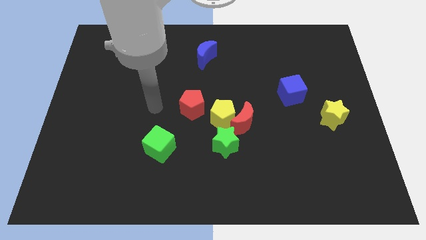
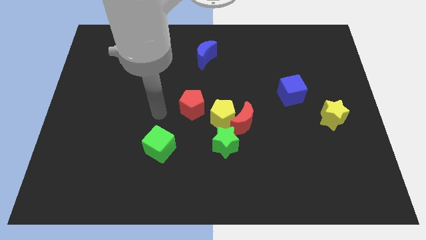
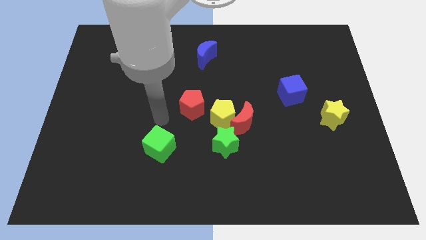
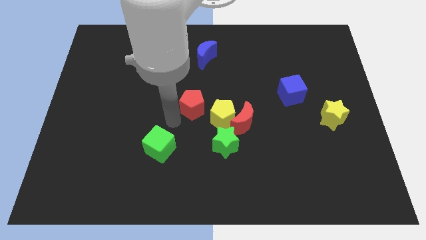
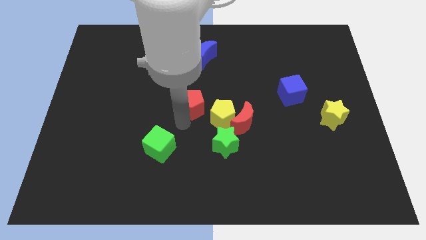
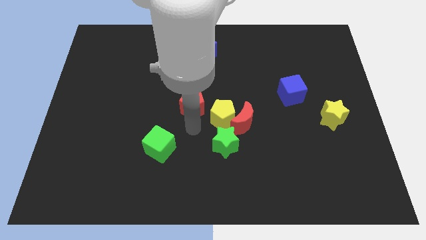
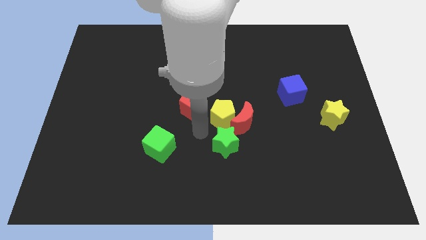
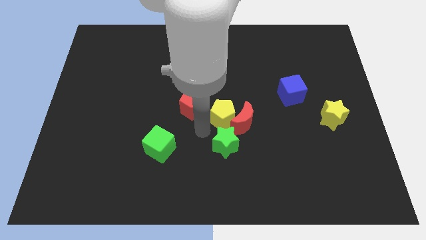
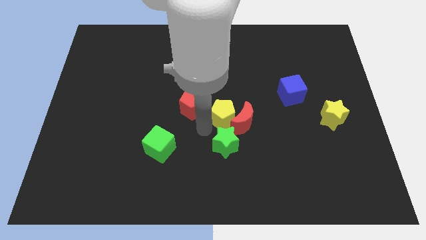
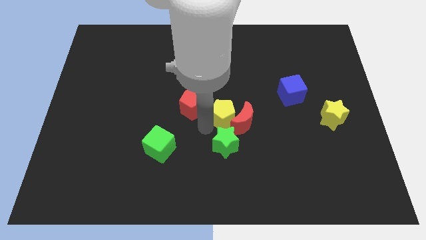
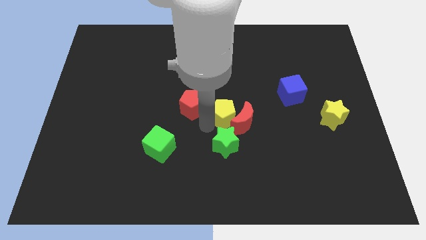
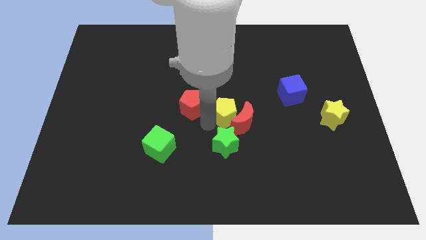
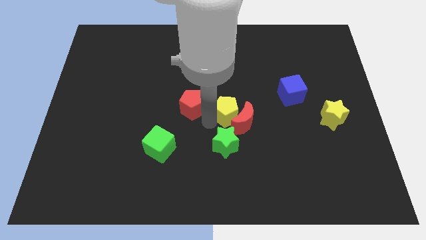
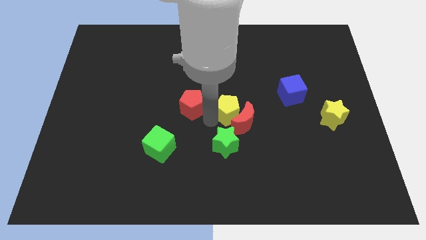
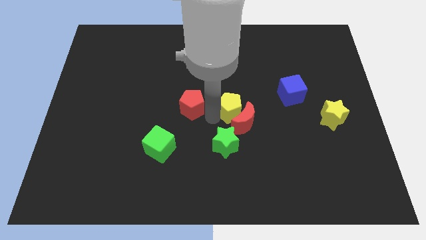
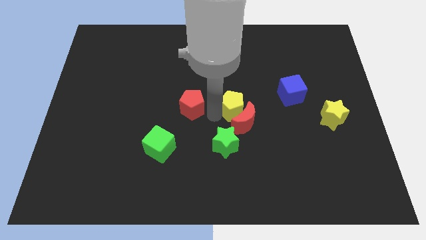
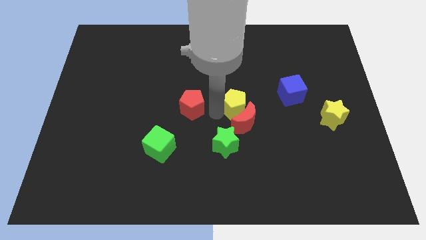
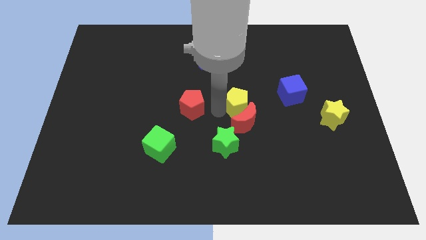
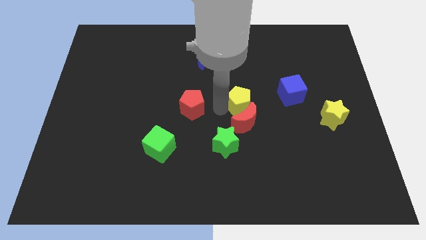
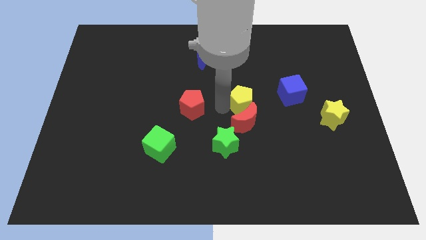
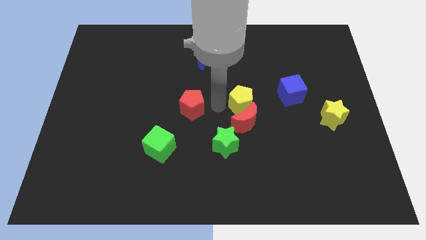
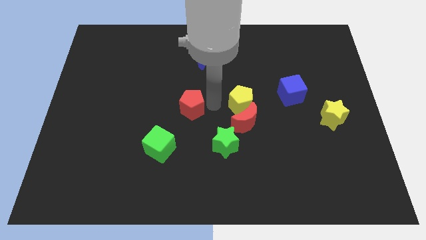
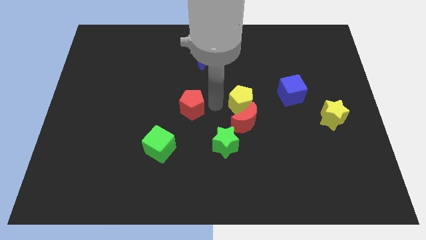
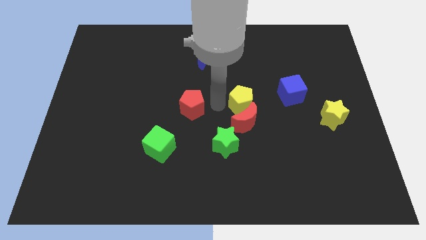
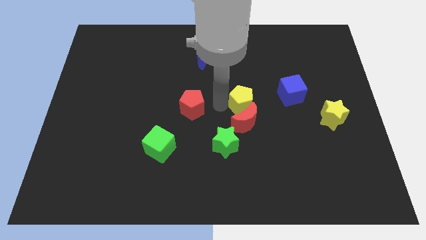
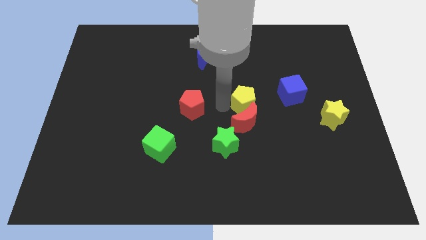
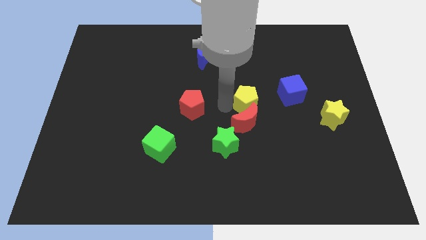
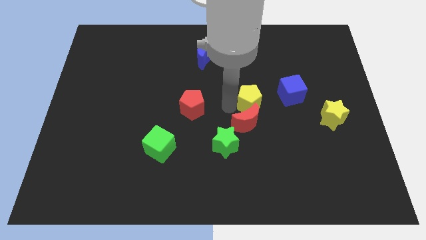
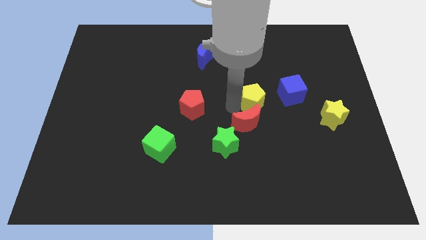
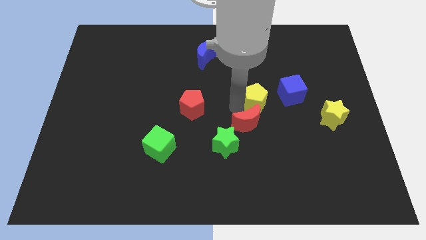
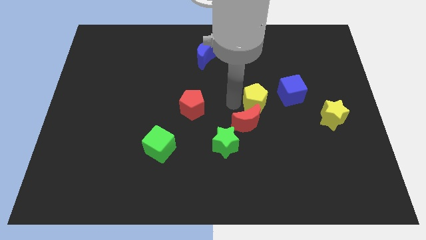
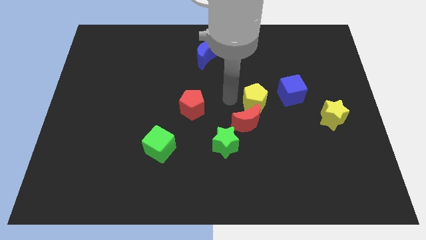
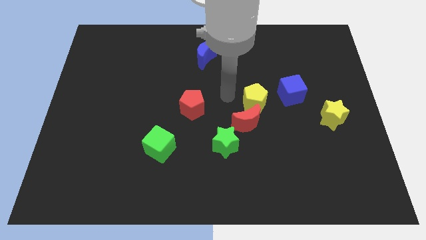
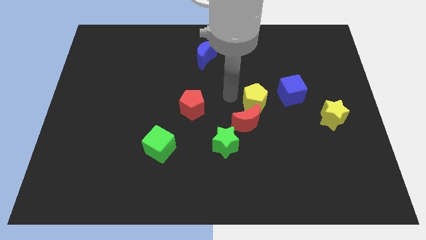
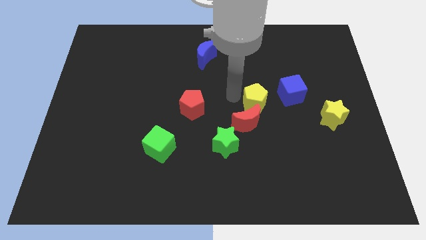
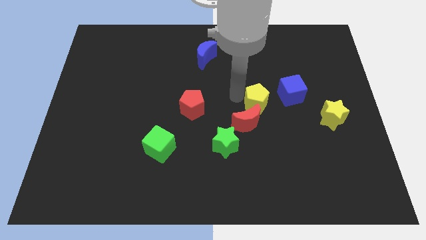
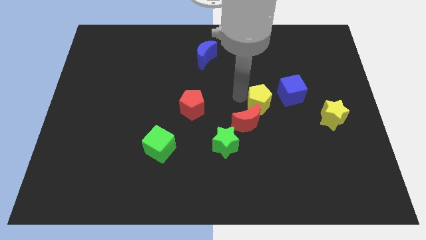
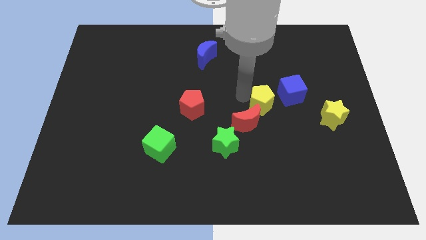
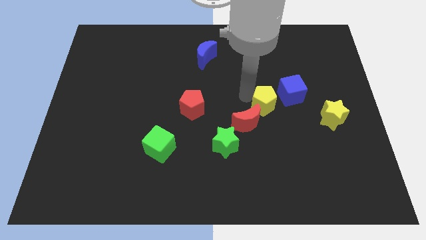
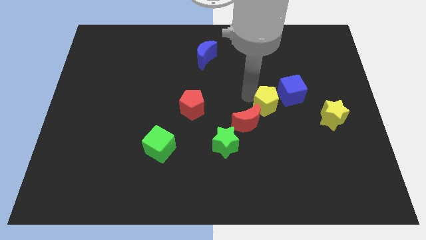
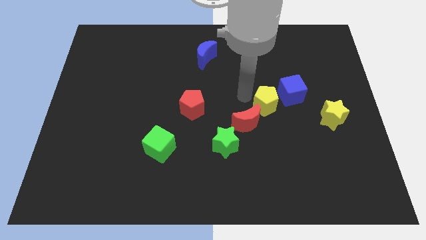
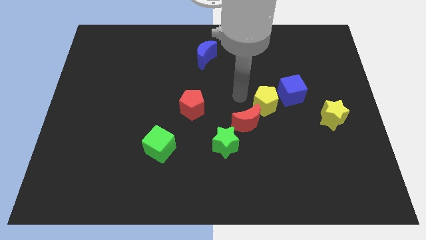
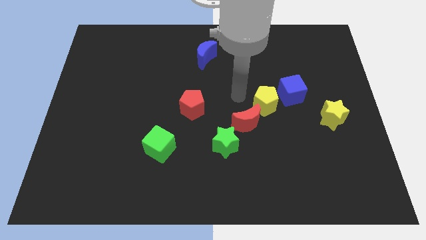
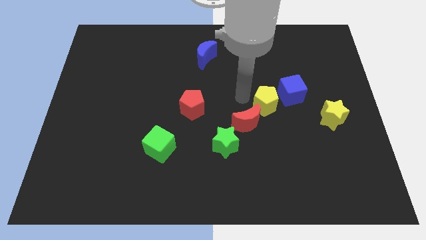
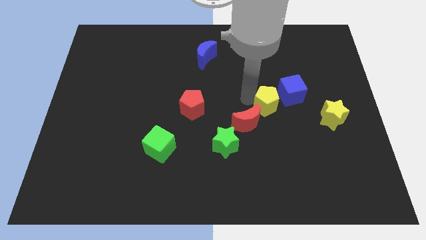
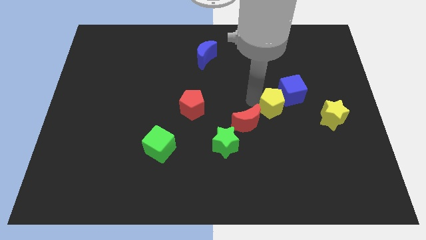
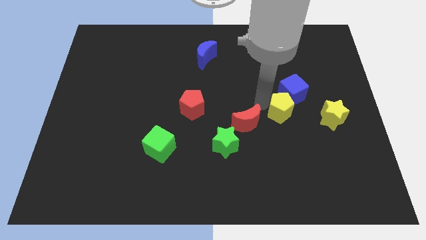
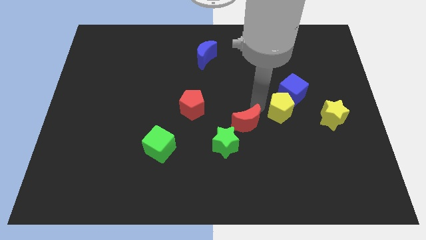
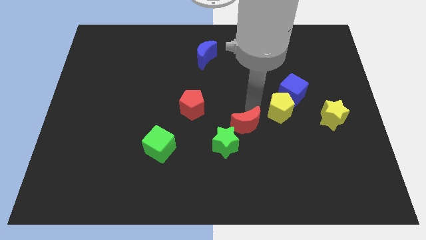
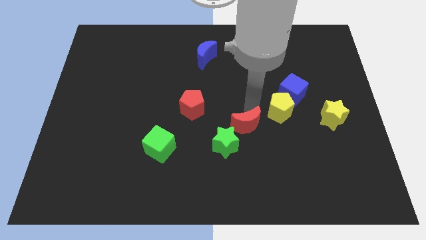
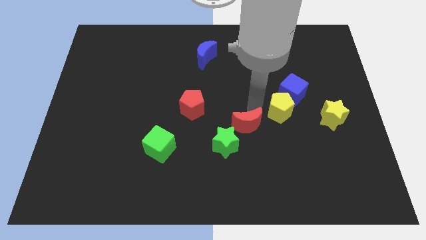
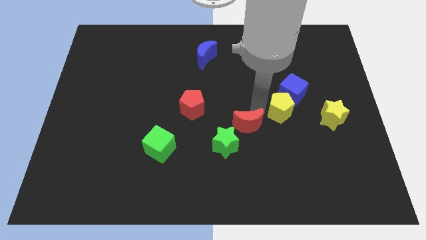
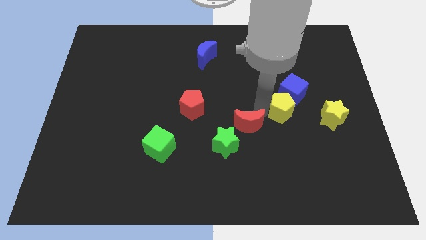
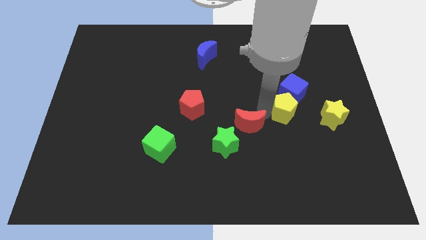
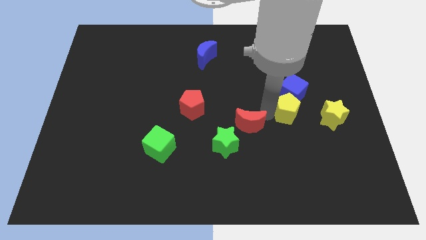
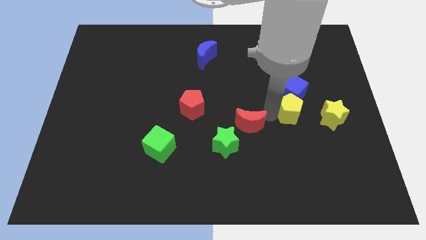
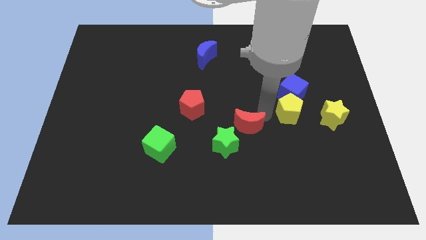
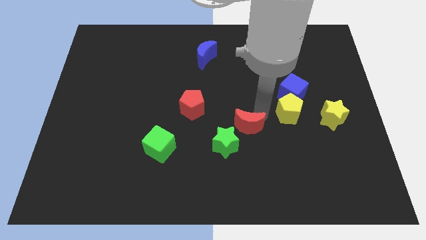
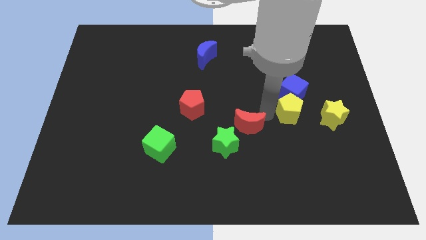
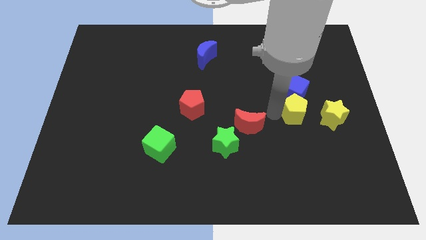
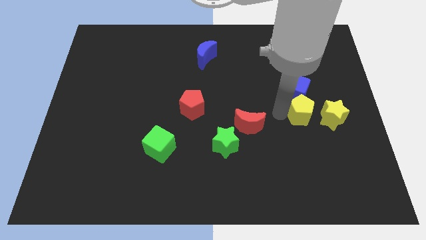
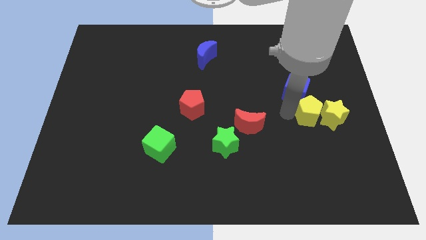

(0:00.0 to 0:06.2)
move the yellow pentagon to the yellow star

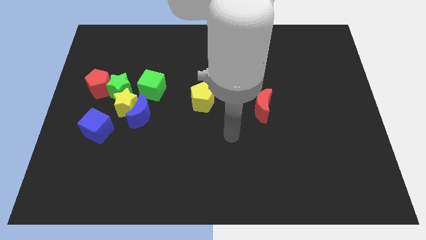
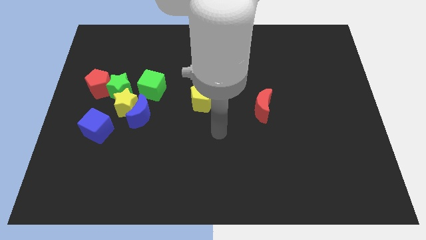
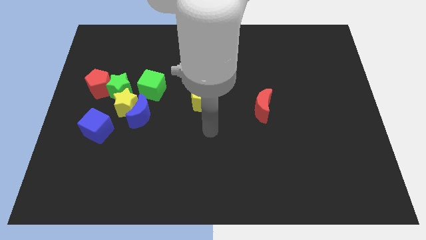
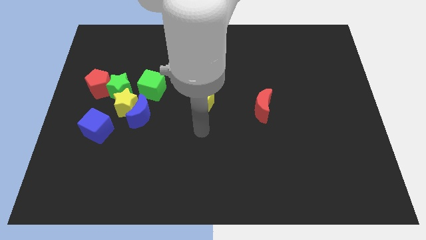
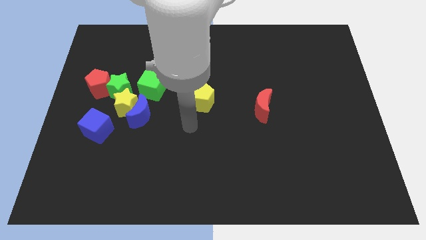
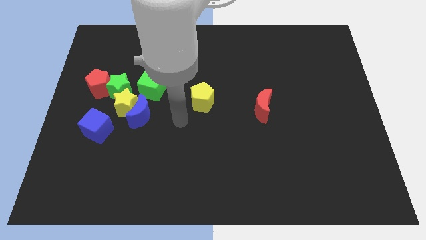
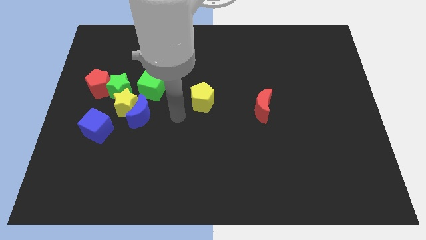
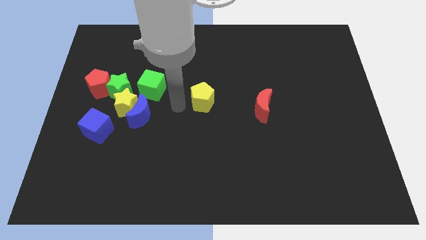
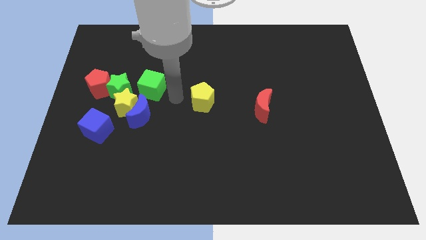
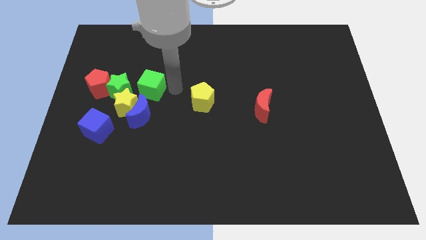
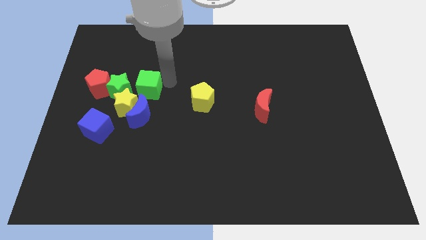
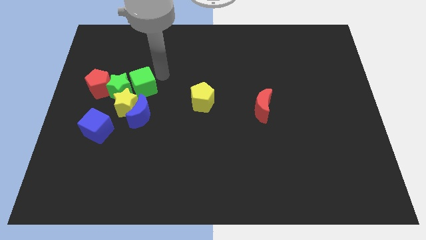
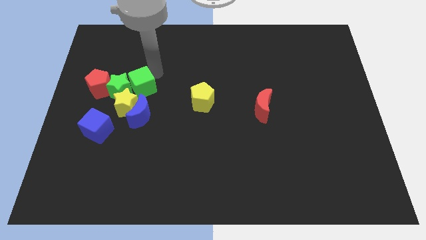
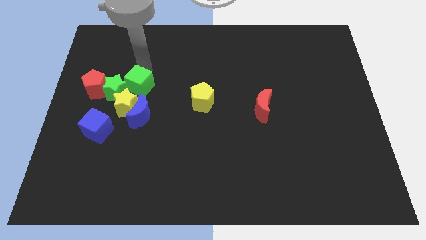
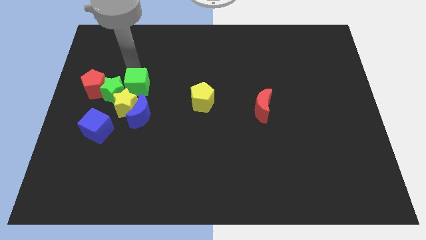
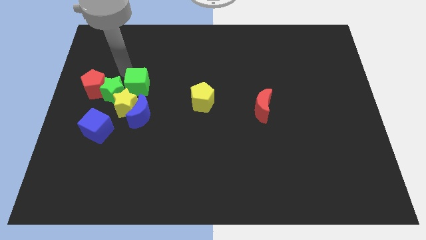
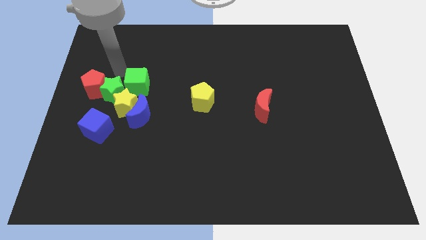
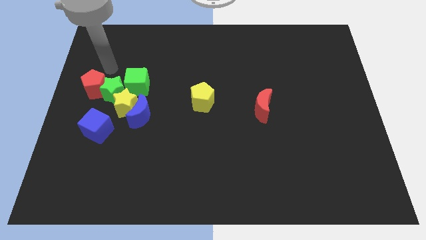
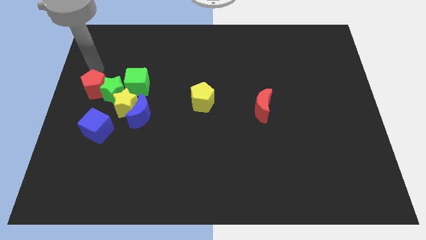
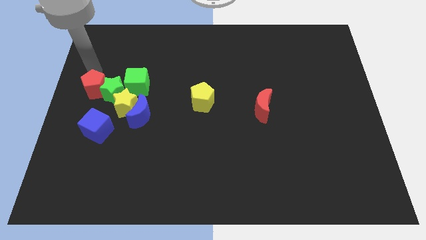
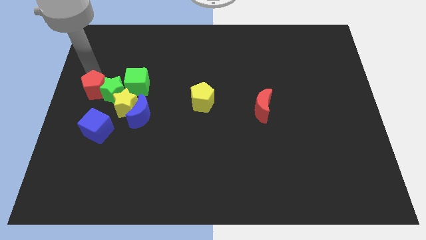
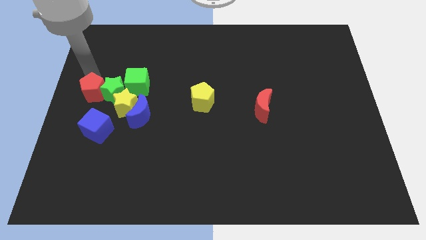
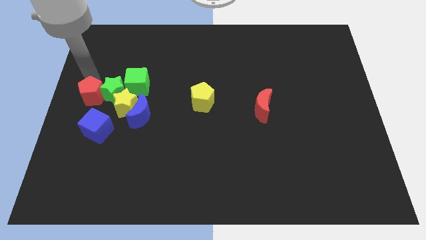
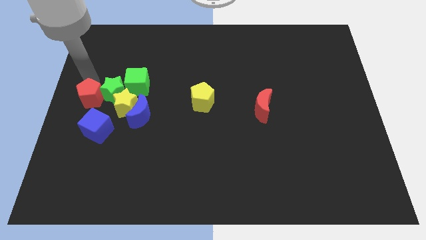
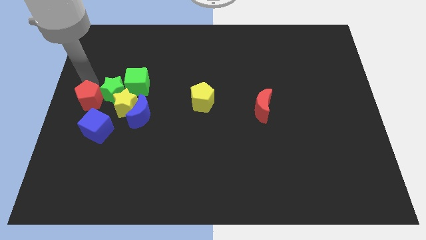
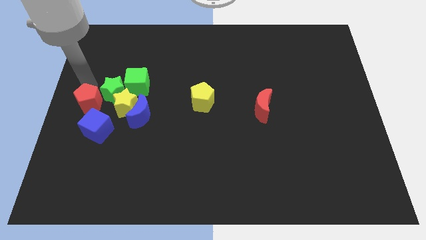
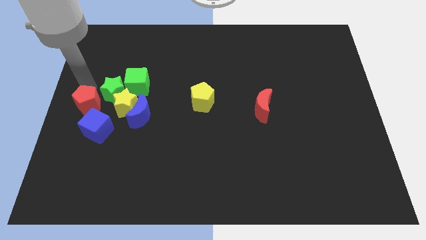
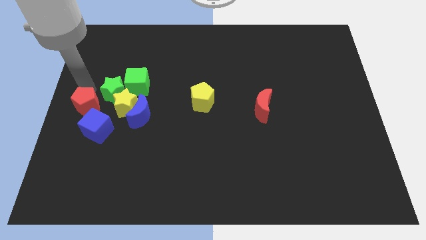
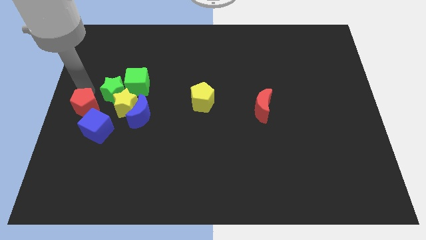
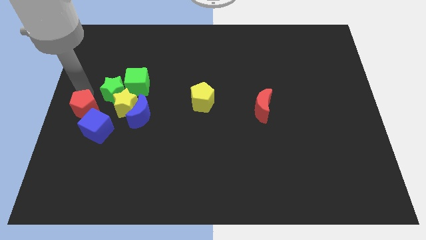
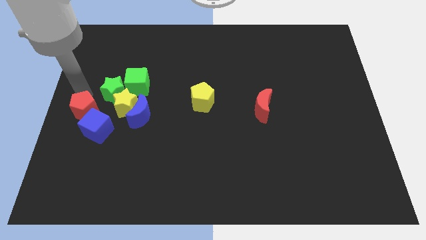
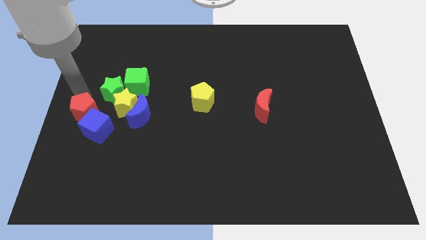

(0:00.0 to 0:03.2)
slide the red pentagon to the blue cube
